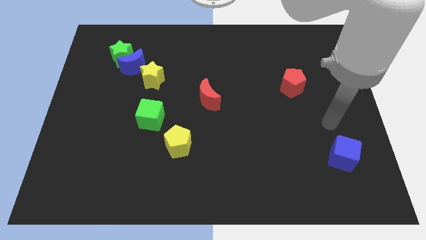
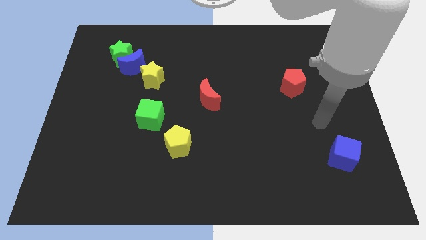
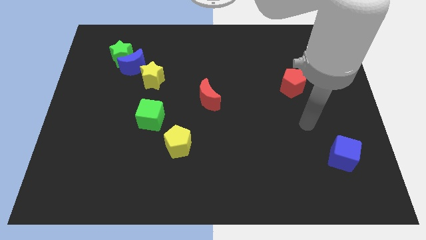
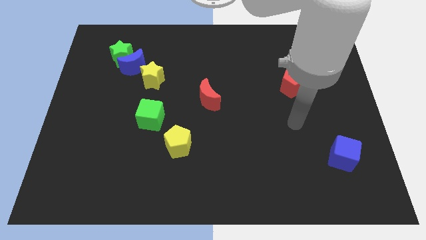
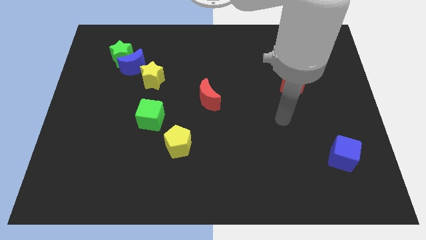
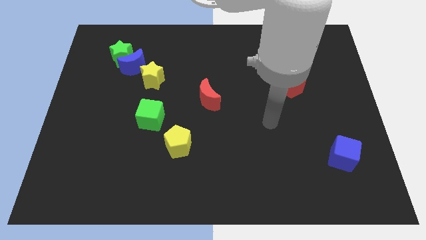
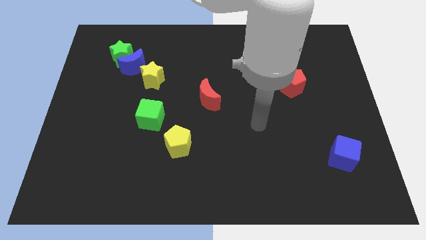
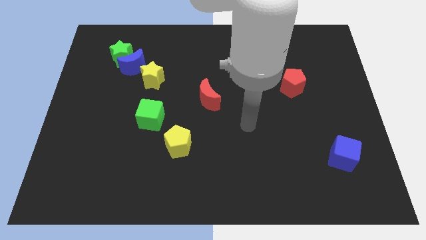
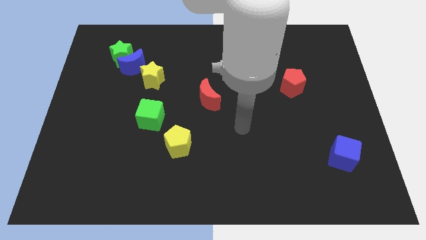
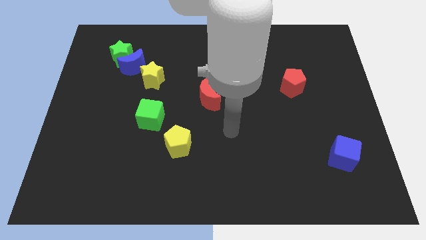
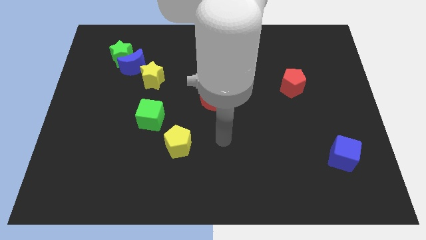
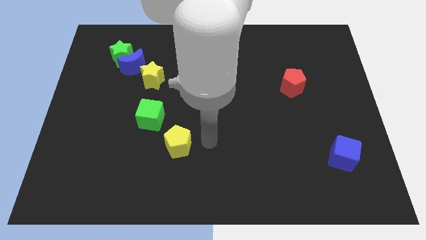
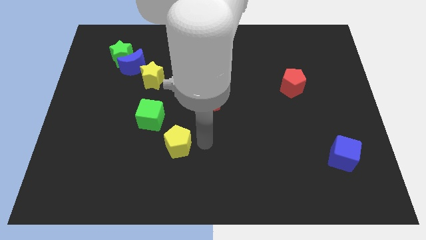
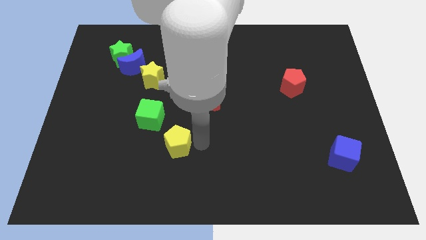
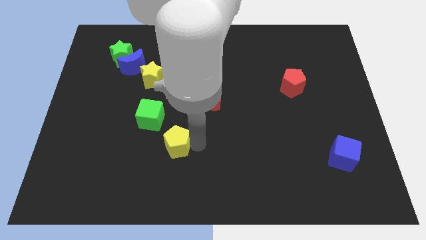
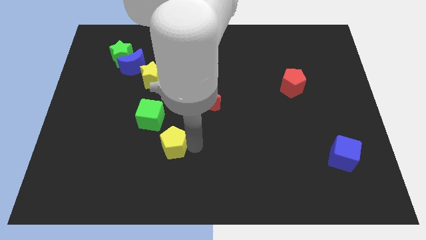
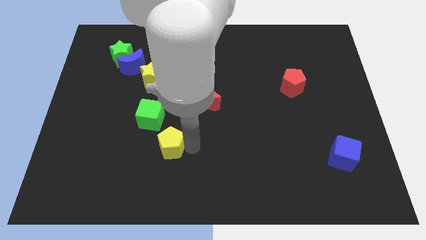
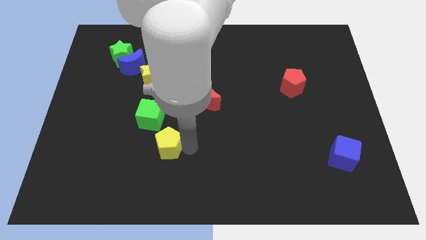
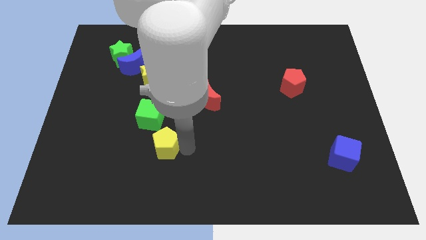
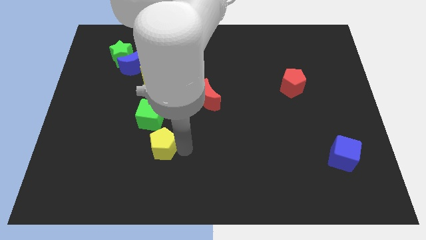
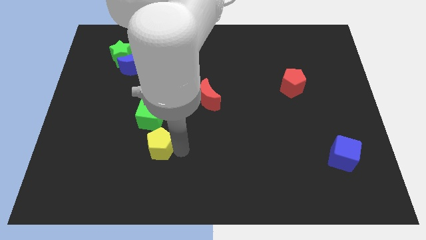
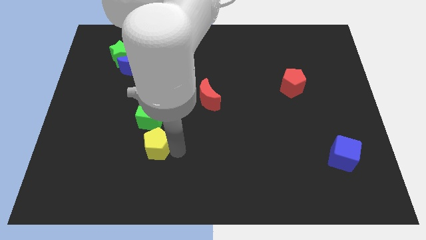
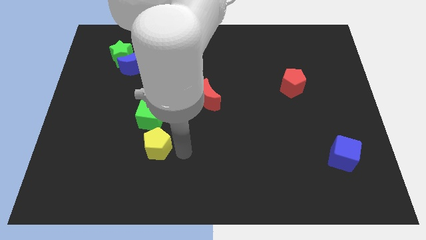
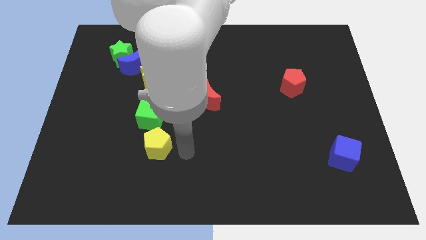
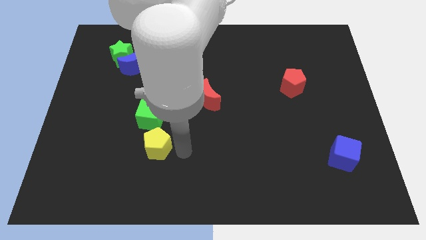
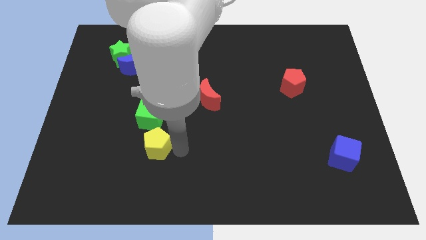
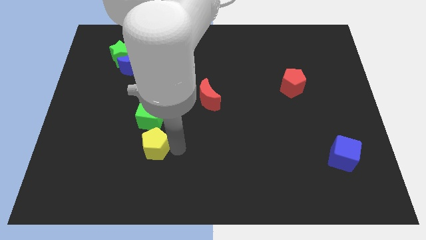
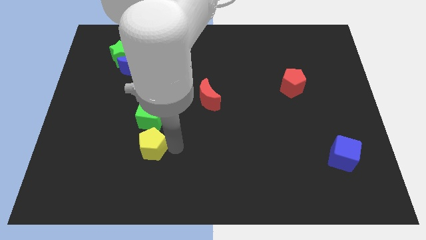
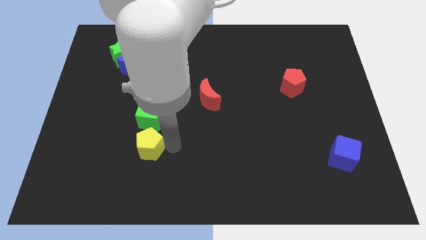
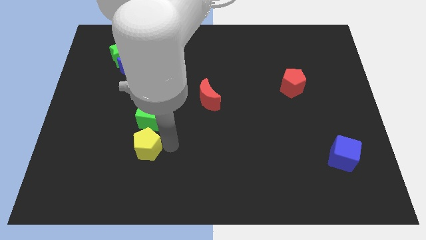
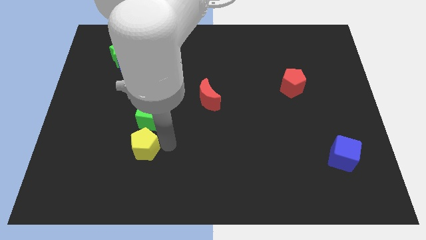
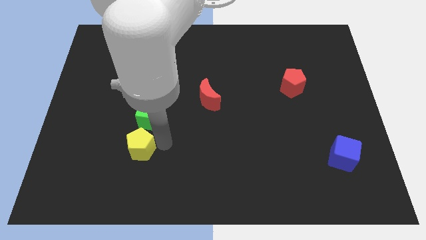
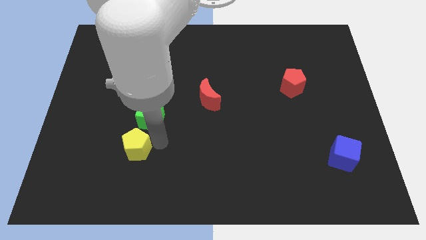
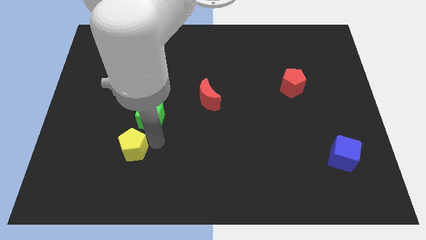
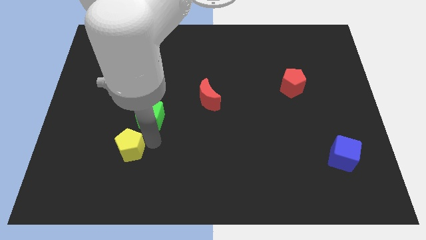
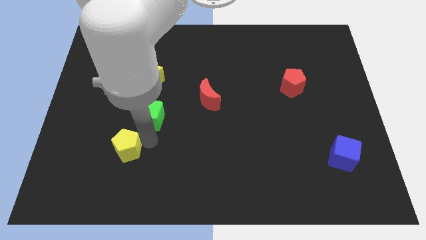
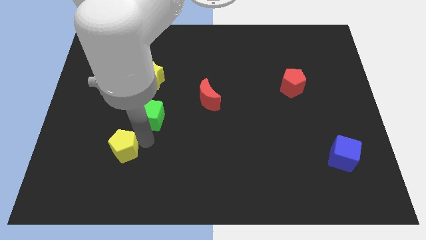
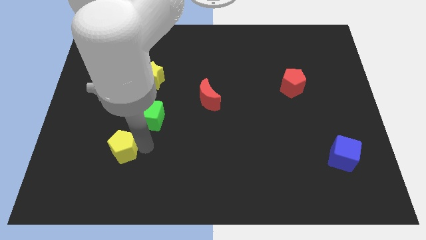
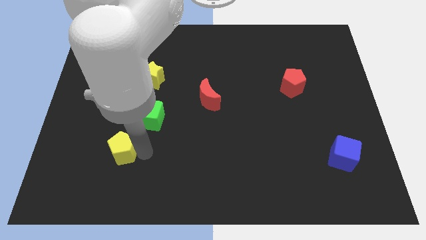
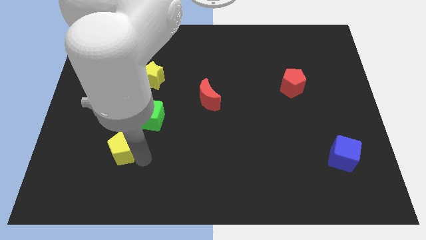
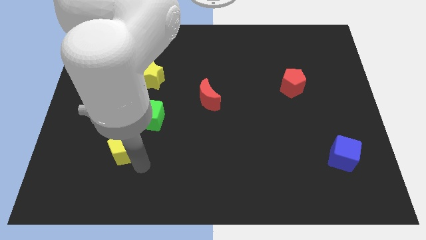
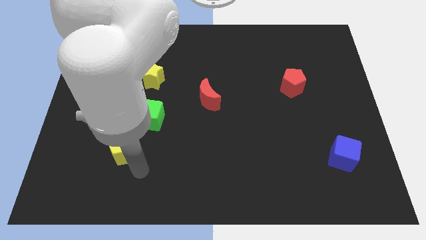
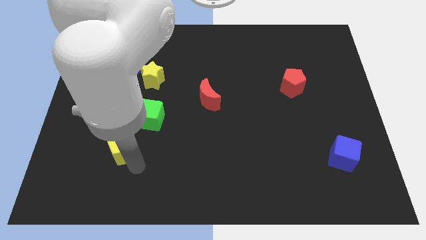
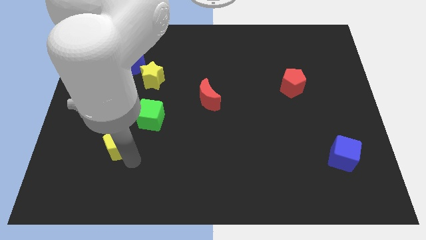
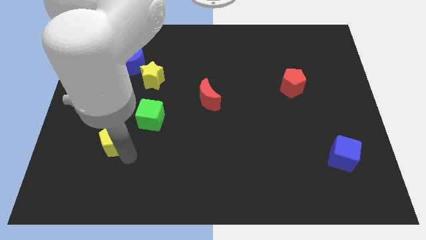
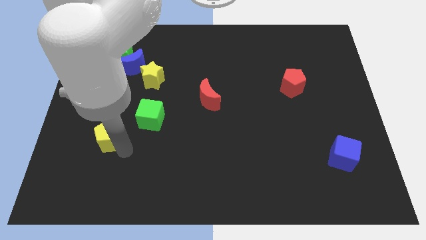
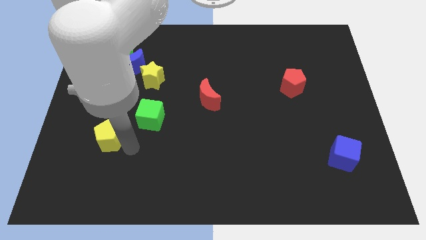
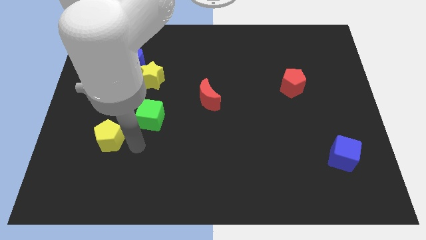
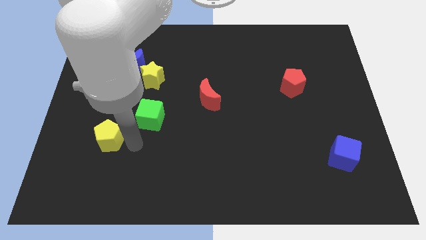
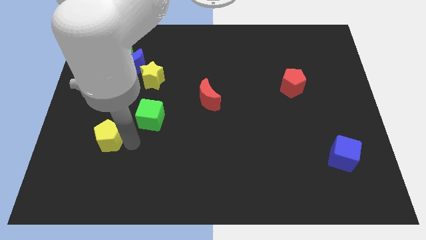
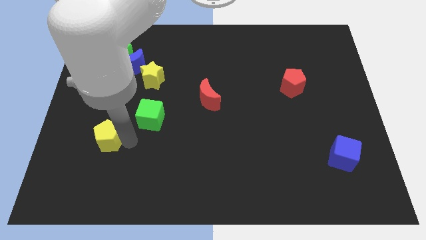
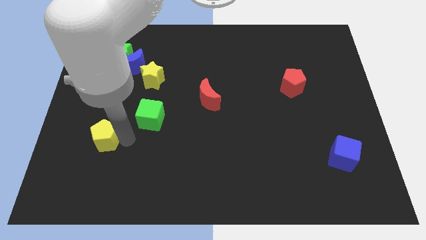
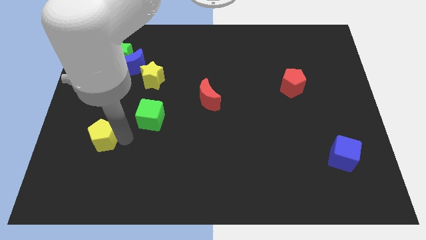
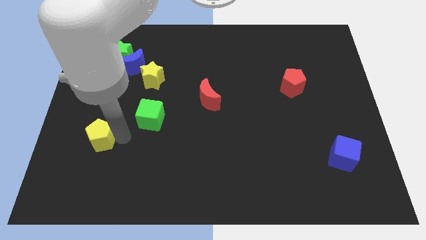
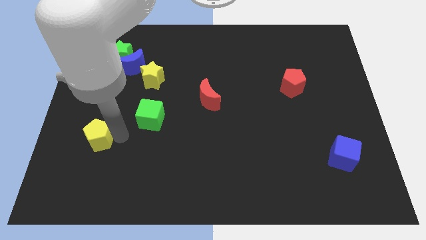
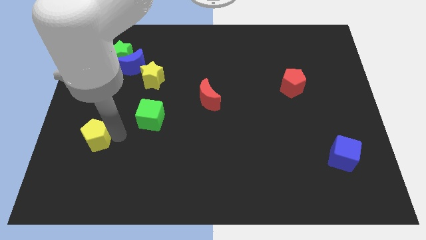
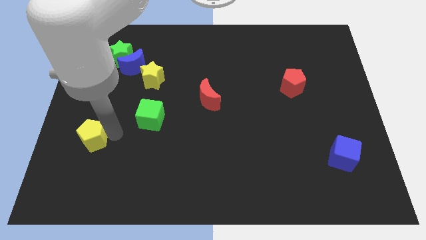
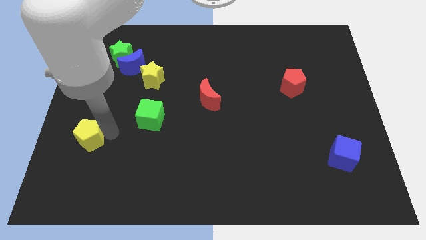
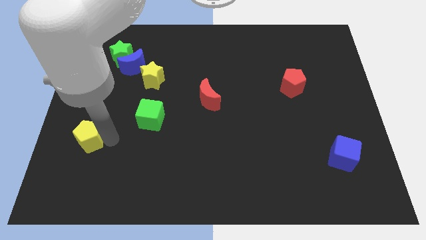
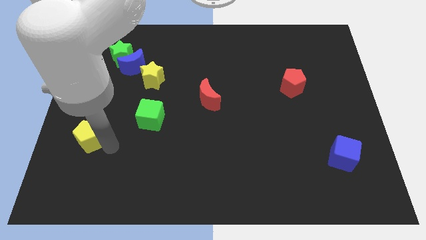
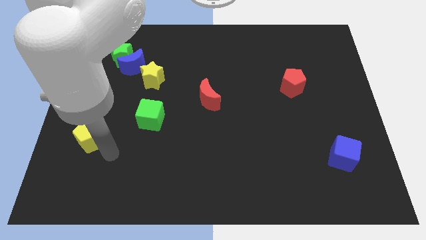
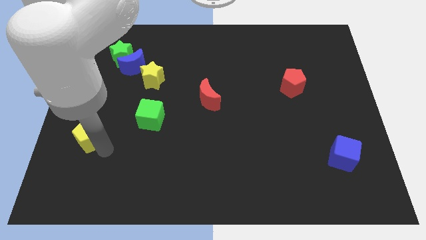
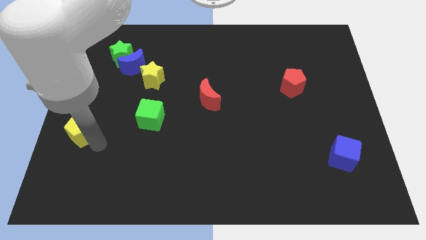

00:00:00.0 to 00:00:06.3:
move the yellow pentagon to the center left

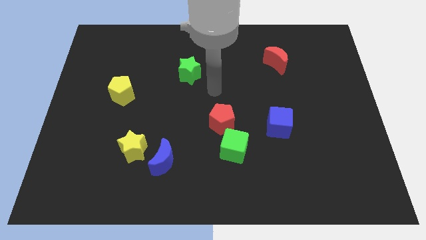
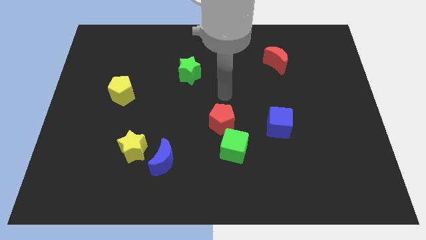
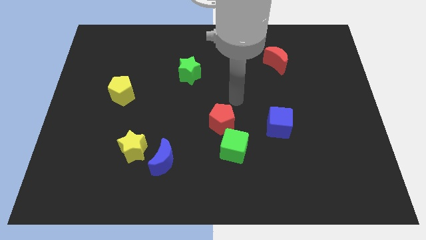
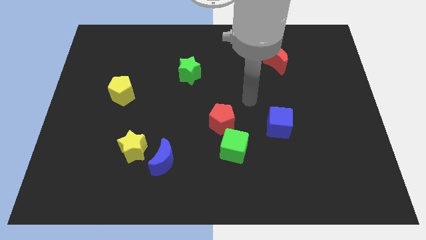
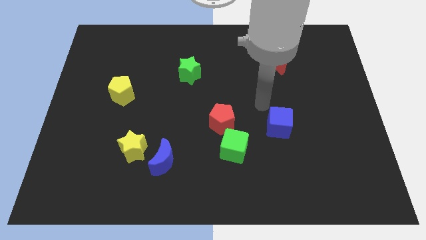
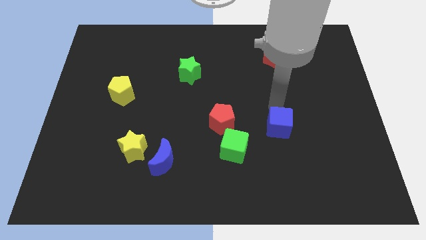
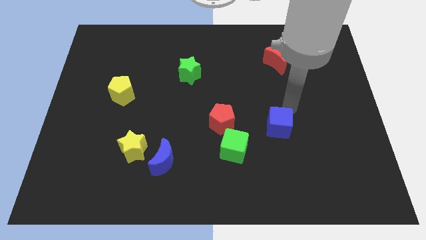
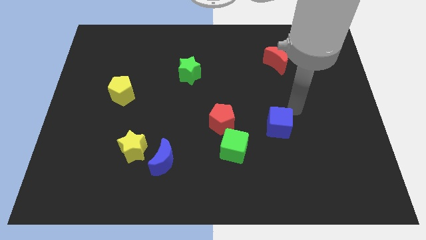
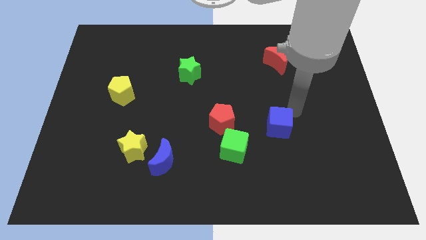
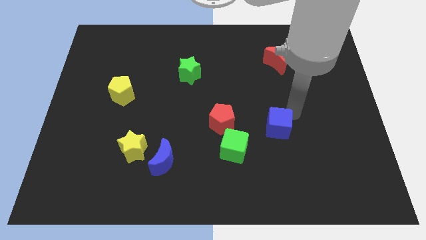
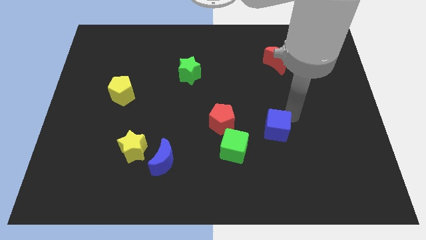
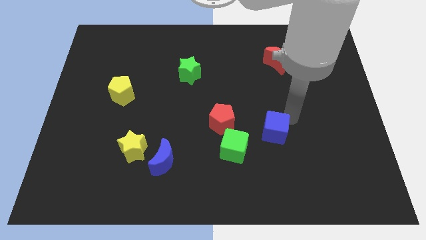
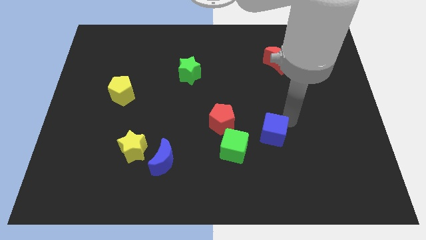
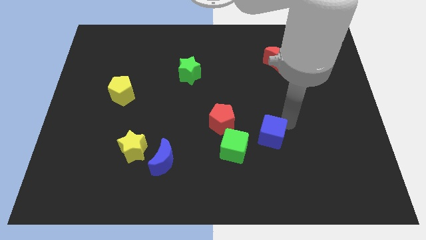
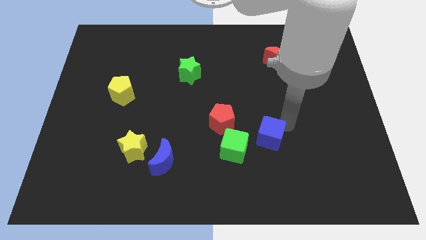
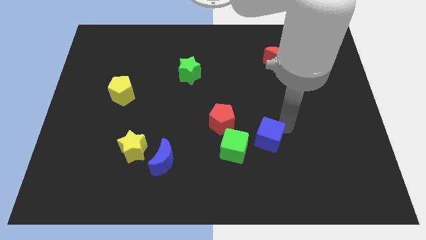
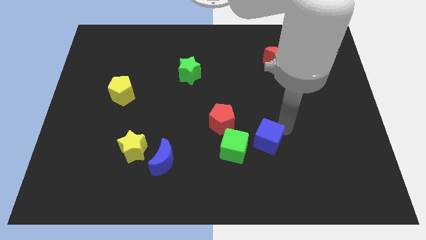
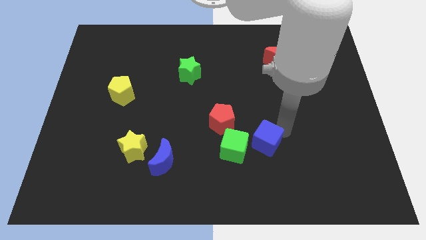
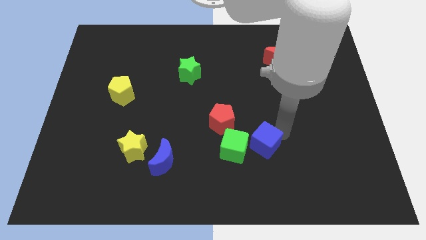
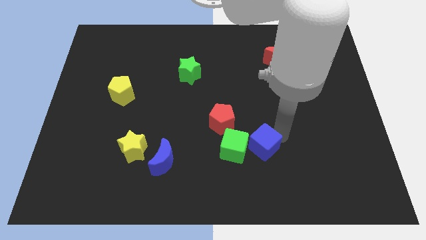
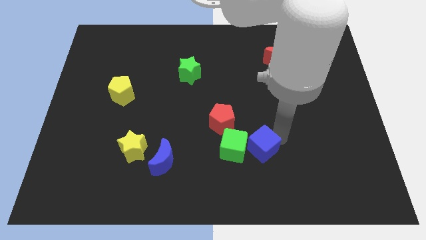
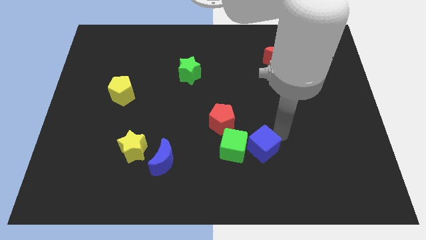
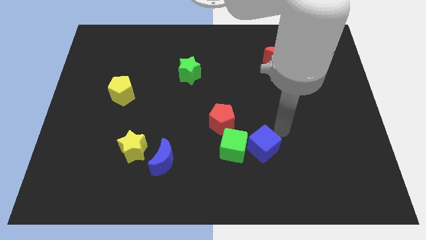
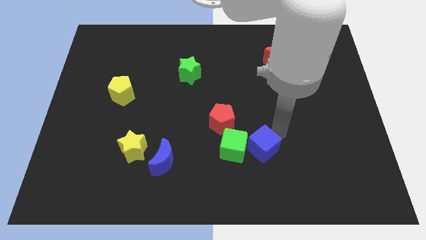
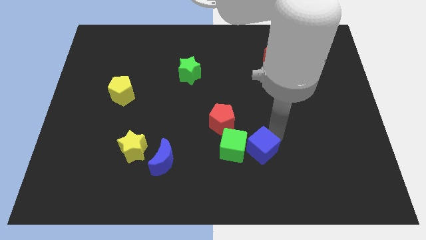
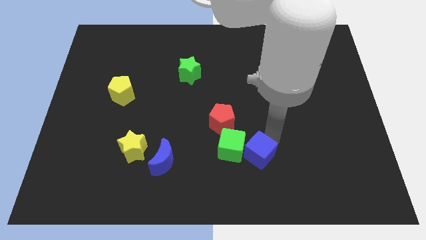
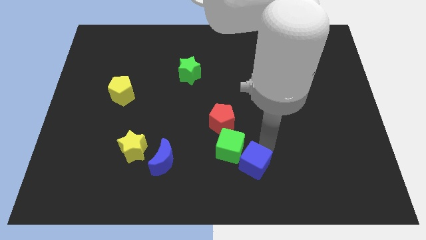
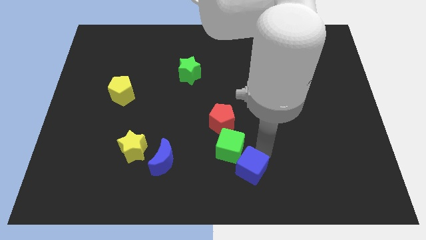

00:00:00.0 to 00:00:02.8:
push the blue cube to the bottom side
